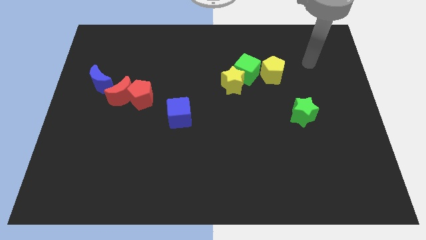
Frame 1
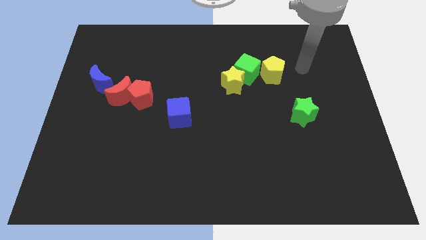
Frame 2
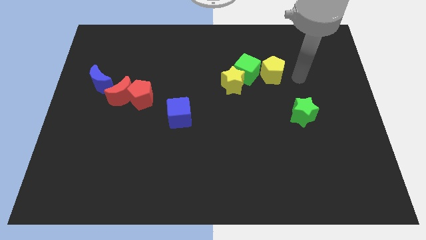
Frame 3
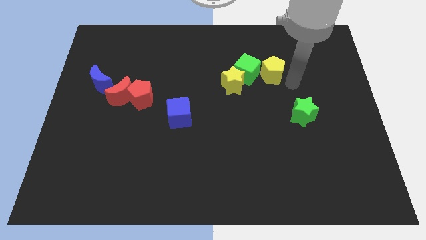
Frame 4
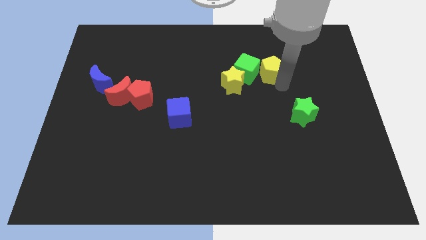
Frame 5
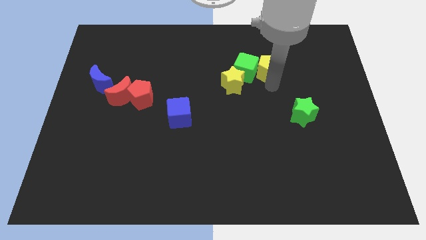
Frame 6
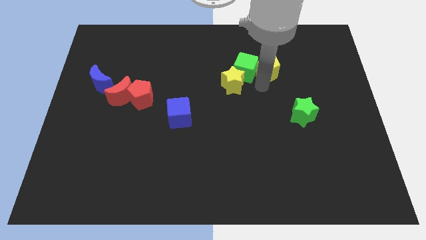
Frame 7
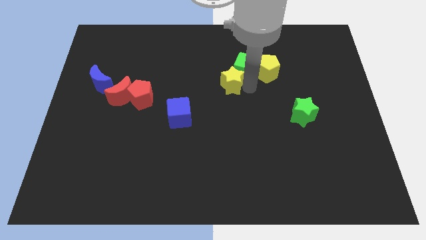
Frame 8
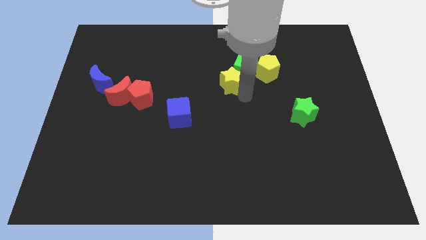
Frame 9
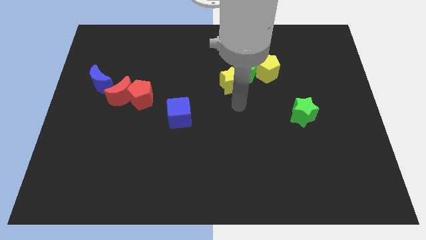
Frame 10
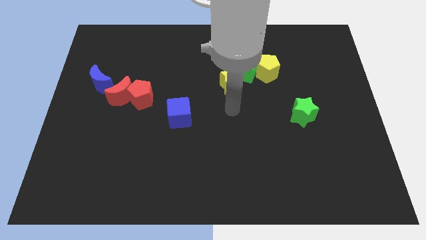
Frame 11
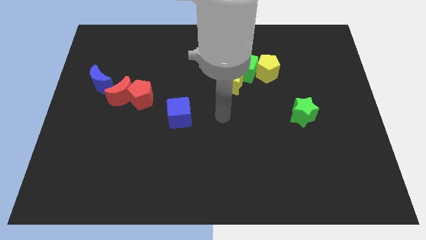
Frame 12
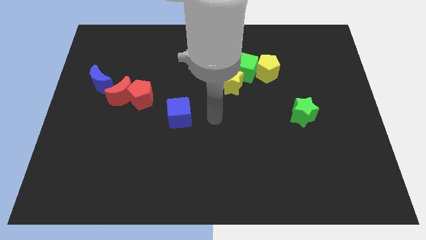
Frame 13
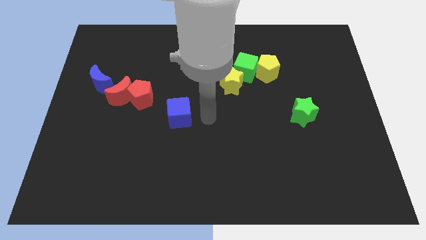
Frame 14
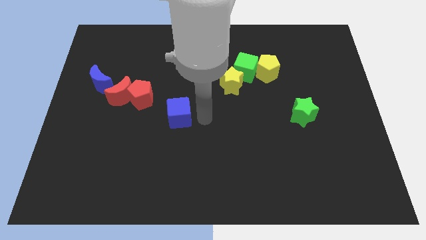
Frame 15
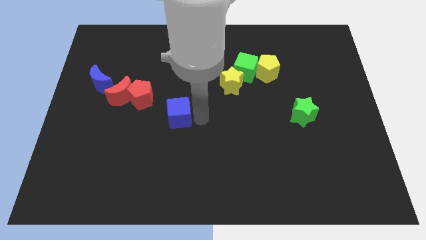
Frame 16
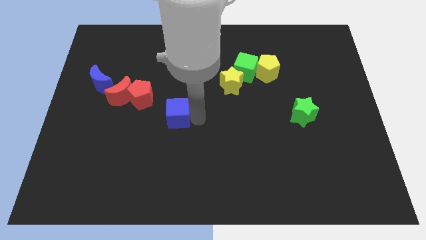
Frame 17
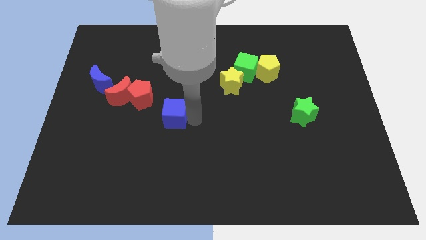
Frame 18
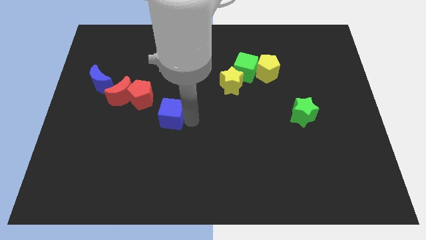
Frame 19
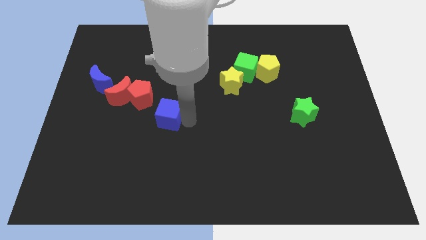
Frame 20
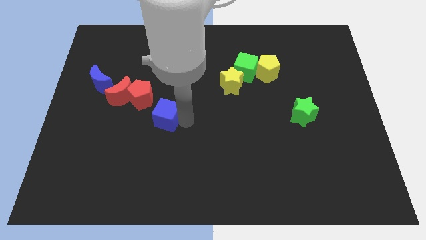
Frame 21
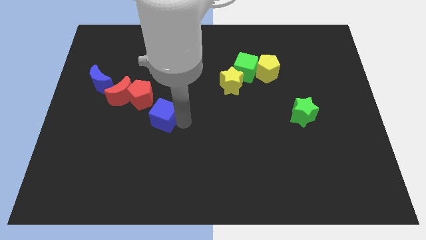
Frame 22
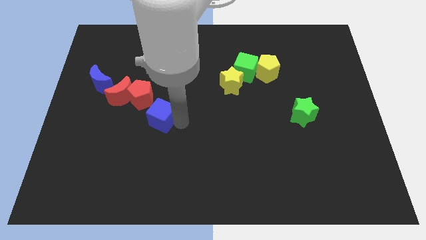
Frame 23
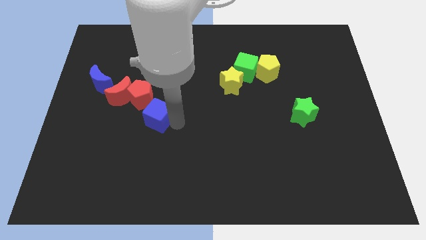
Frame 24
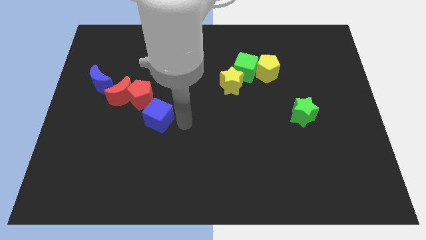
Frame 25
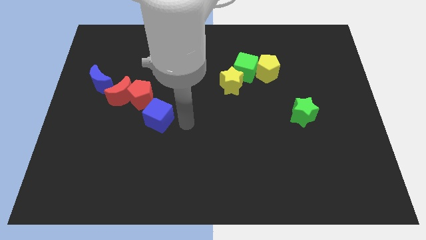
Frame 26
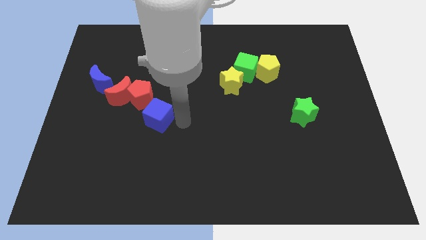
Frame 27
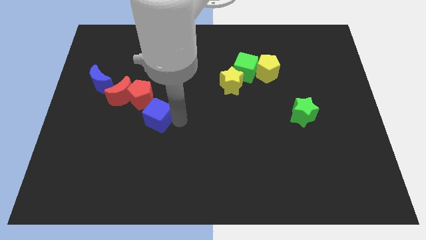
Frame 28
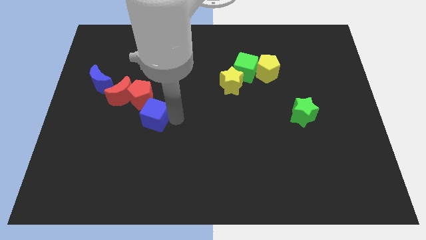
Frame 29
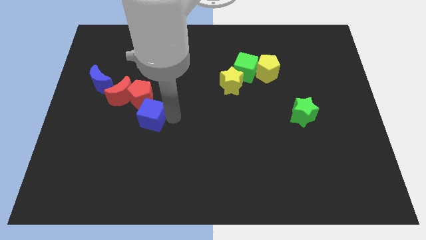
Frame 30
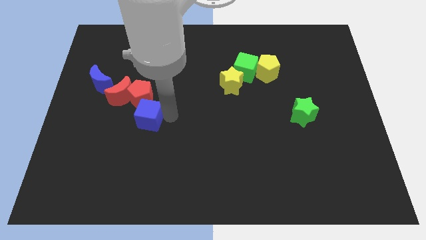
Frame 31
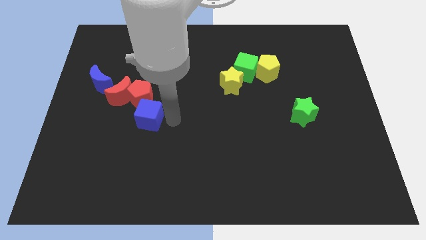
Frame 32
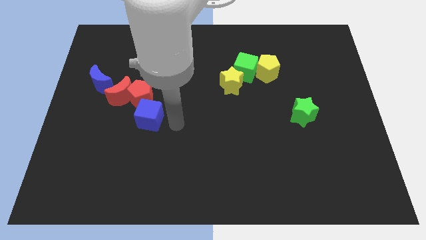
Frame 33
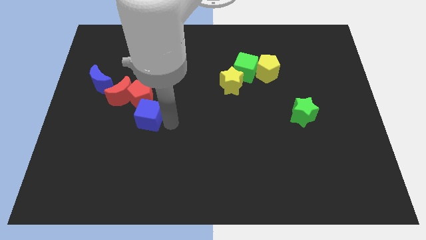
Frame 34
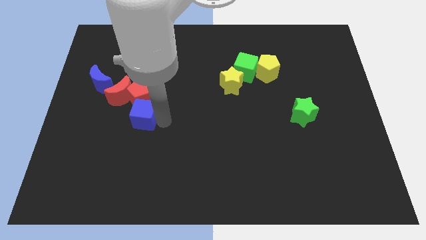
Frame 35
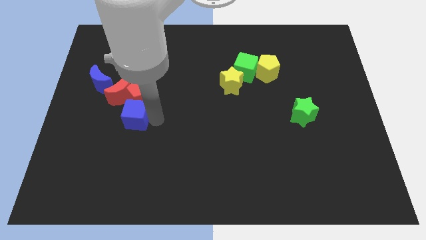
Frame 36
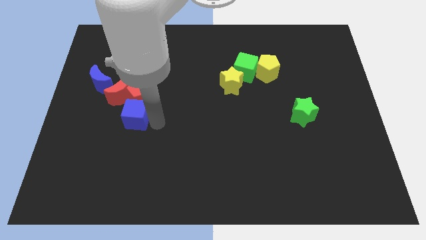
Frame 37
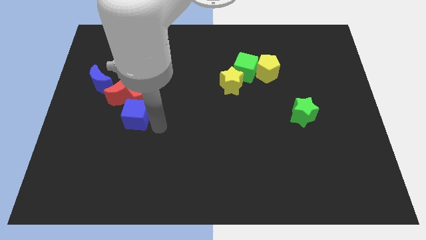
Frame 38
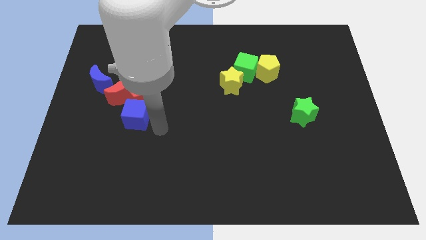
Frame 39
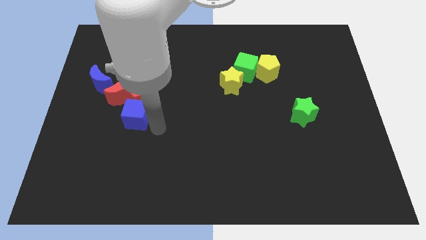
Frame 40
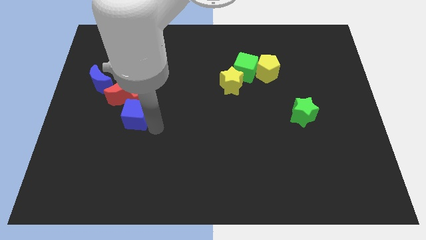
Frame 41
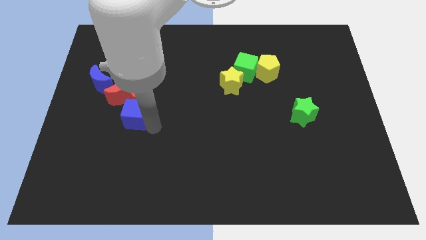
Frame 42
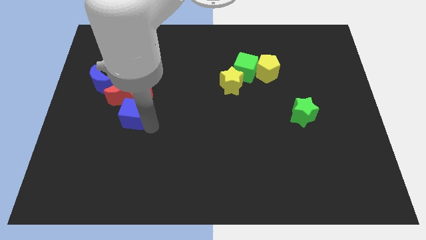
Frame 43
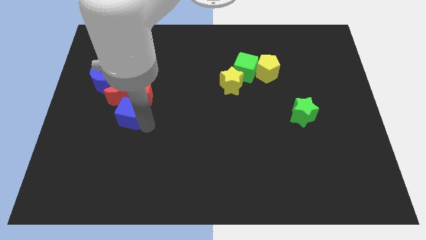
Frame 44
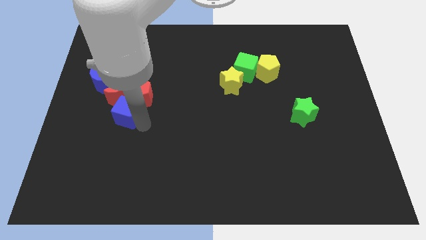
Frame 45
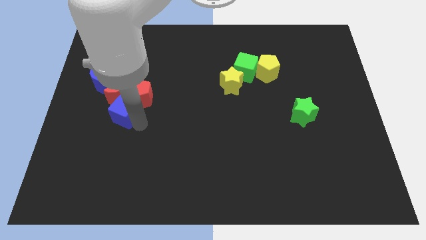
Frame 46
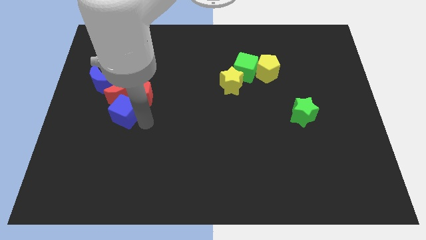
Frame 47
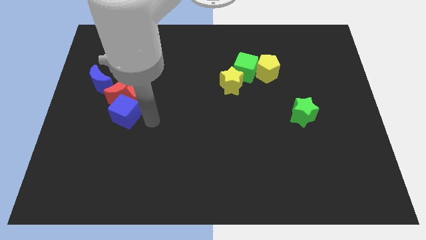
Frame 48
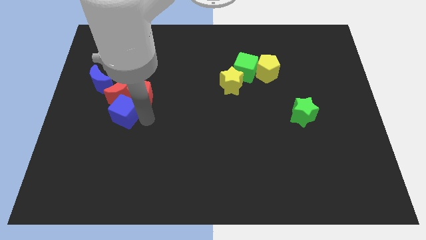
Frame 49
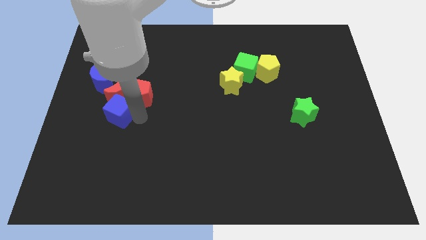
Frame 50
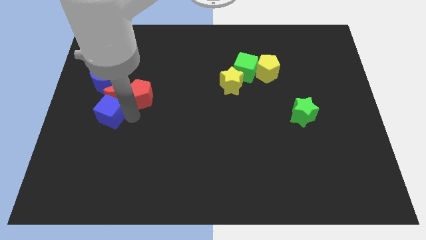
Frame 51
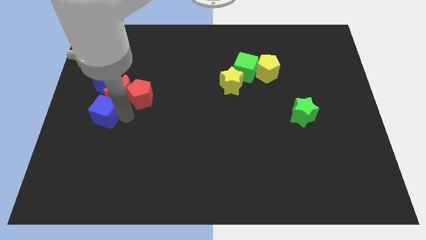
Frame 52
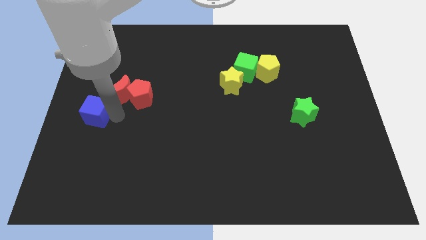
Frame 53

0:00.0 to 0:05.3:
put the blue cube to the left side
